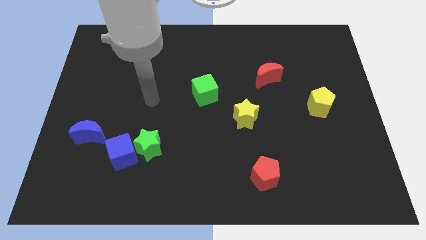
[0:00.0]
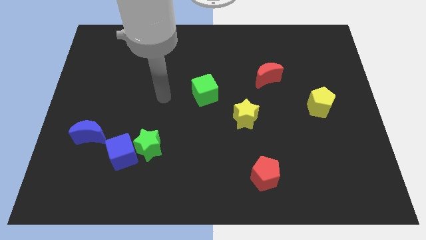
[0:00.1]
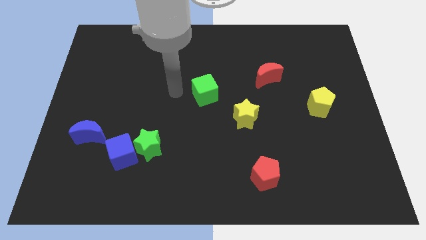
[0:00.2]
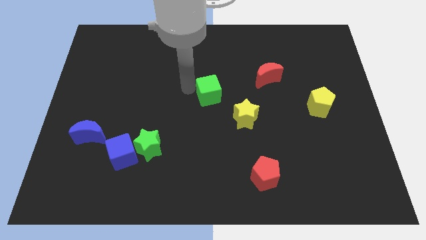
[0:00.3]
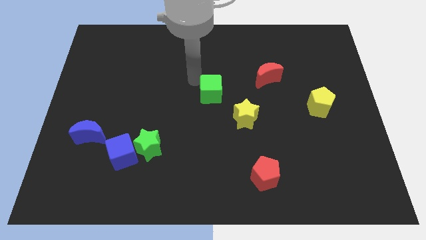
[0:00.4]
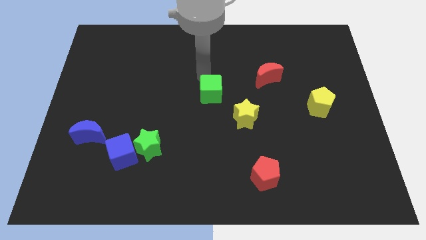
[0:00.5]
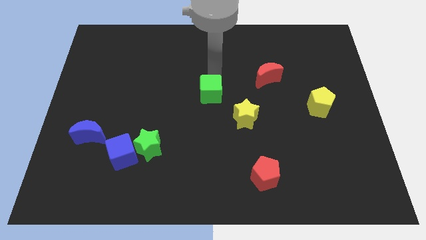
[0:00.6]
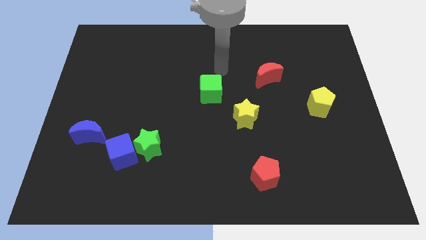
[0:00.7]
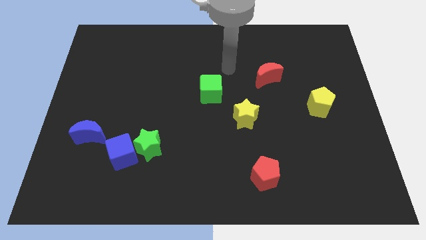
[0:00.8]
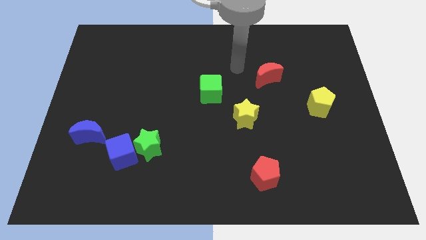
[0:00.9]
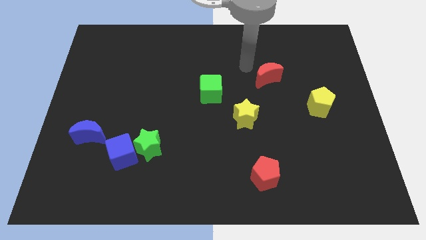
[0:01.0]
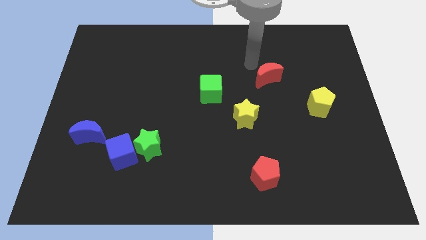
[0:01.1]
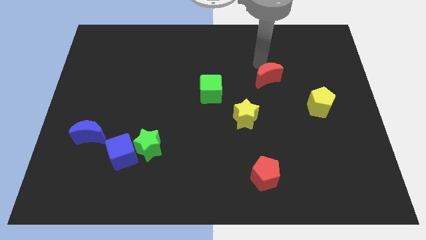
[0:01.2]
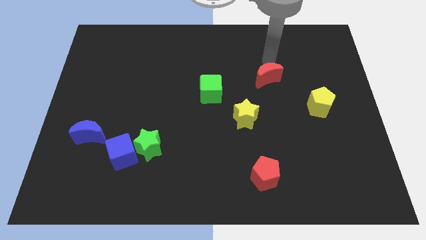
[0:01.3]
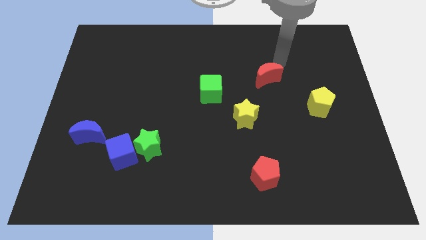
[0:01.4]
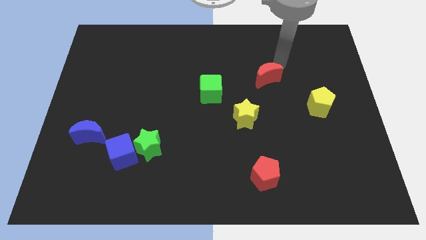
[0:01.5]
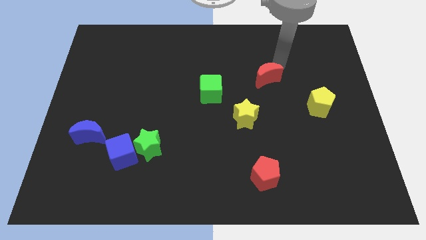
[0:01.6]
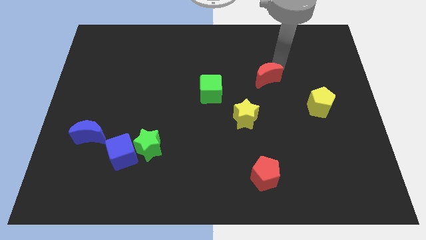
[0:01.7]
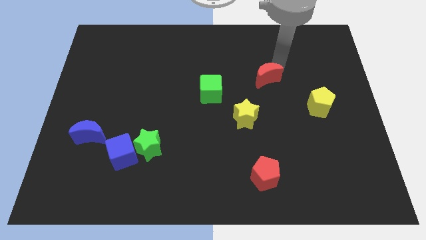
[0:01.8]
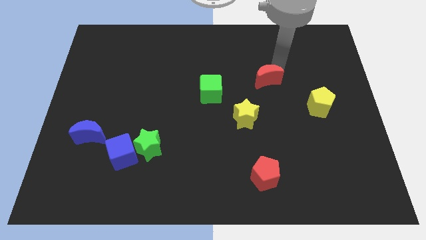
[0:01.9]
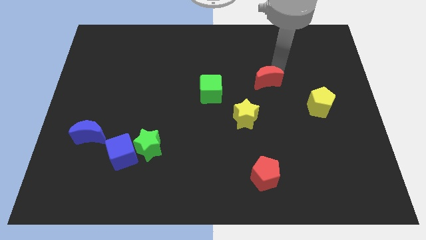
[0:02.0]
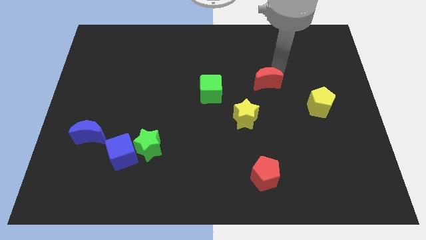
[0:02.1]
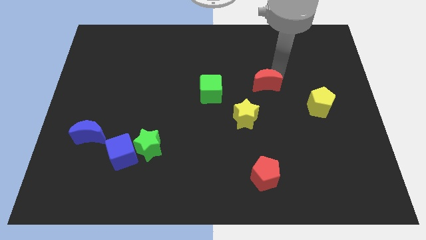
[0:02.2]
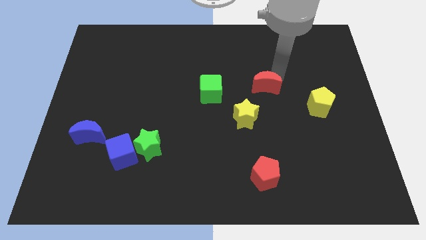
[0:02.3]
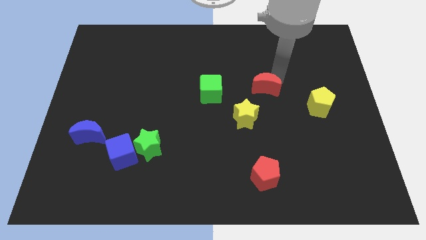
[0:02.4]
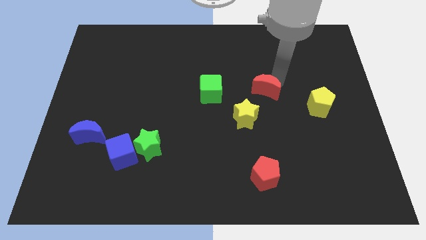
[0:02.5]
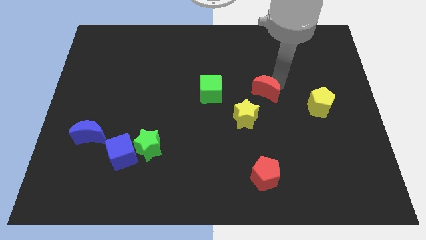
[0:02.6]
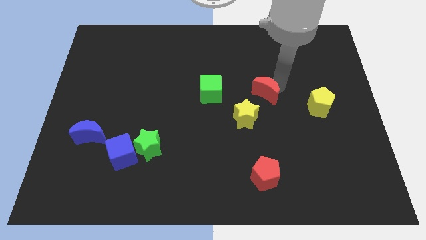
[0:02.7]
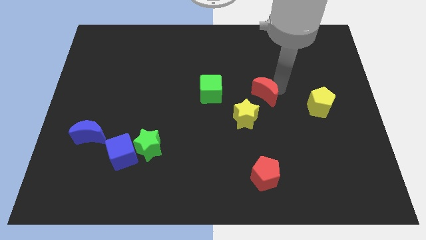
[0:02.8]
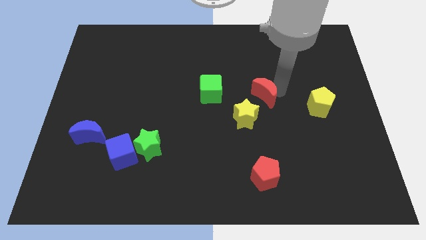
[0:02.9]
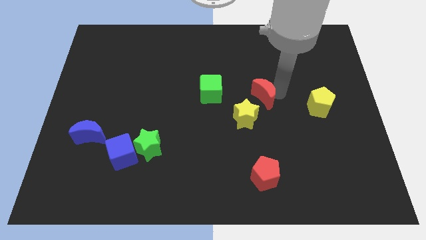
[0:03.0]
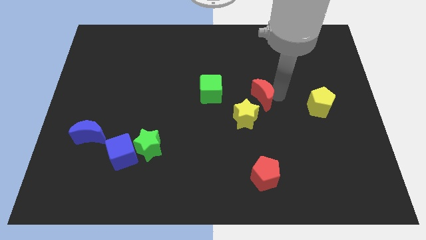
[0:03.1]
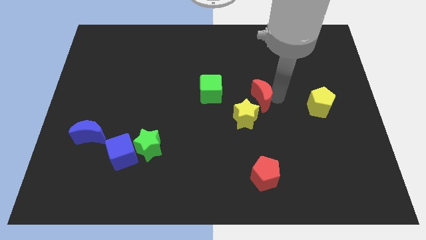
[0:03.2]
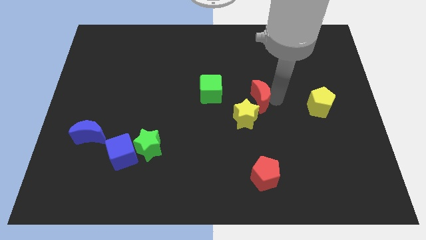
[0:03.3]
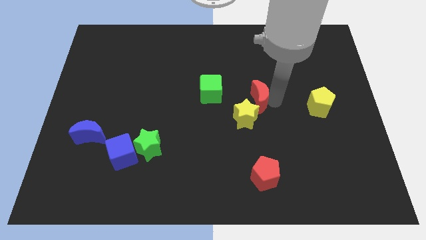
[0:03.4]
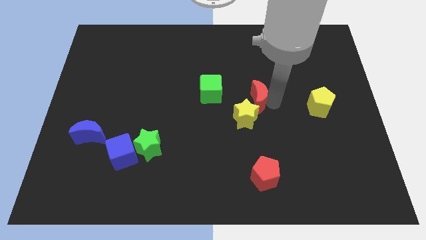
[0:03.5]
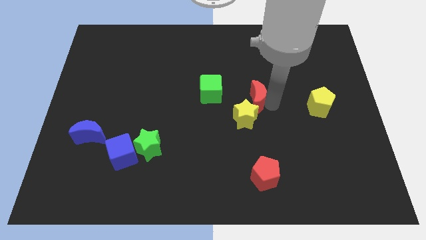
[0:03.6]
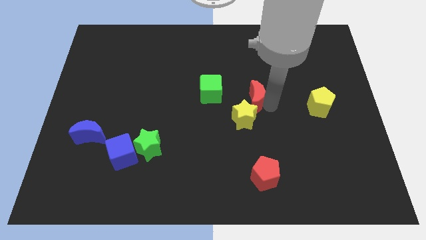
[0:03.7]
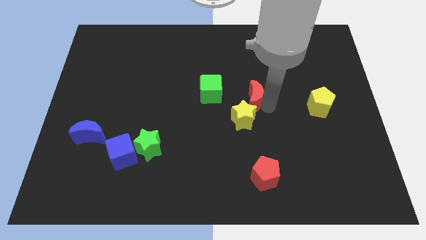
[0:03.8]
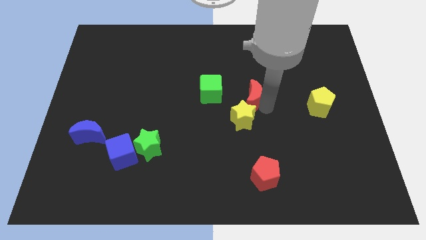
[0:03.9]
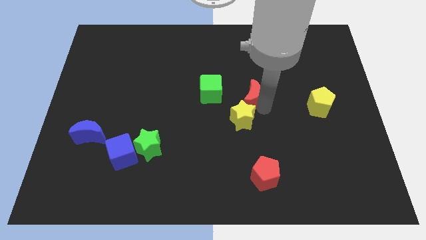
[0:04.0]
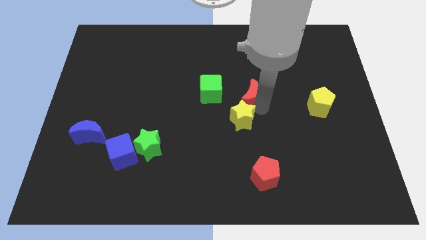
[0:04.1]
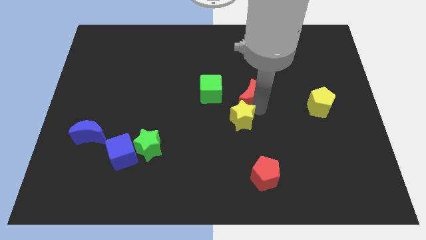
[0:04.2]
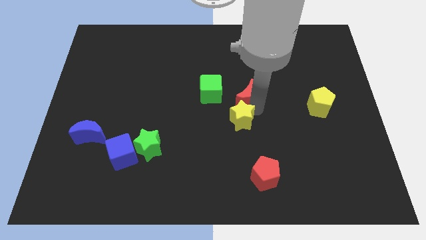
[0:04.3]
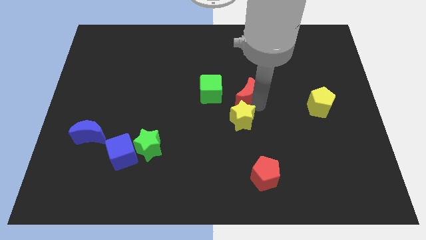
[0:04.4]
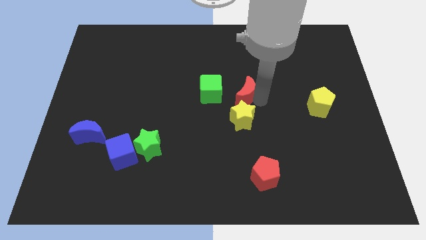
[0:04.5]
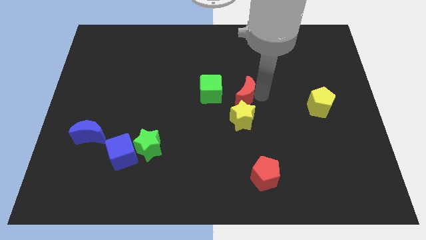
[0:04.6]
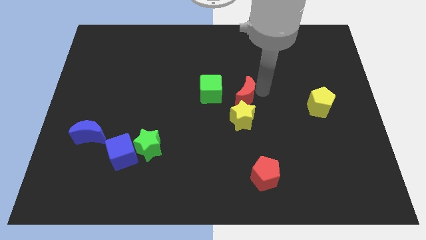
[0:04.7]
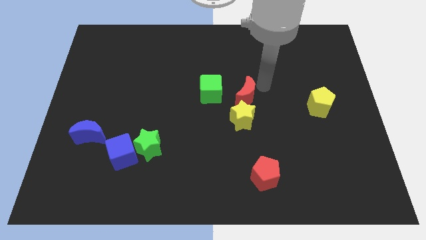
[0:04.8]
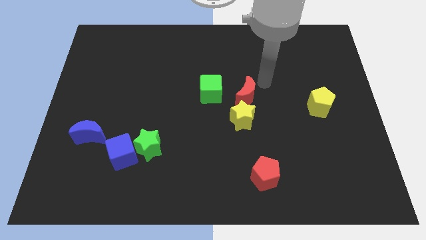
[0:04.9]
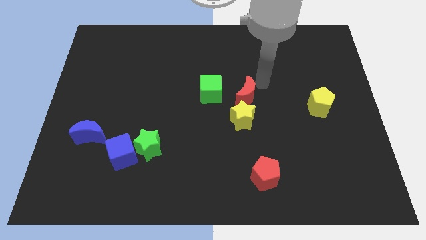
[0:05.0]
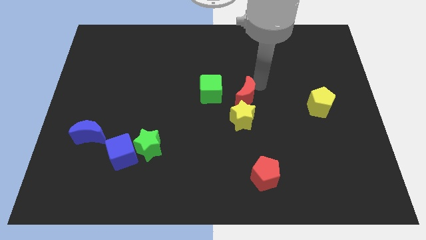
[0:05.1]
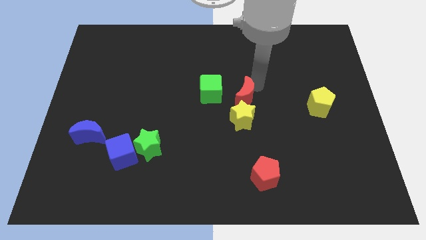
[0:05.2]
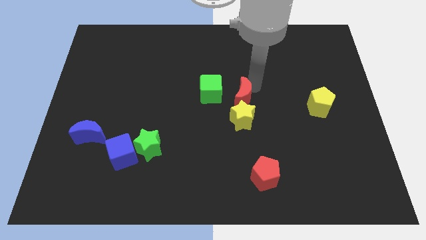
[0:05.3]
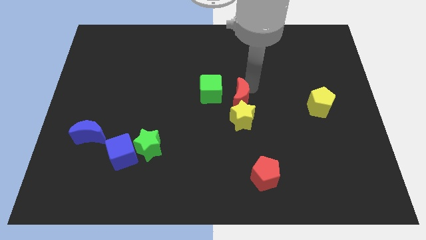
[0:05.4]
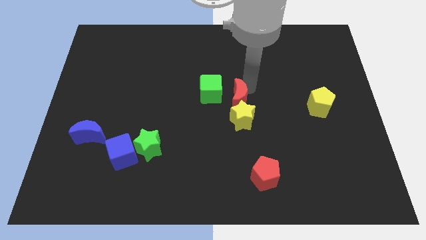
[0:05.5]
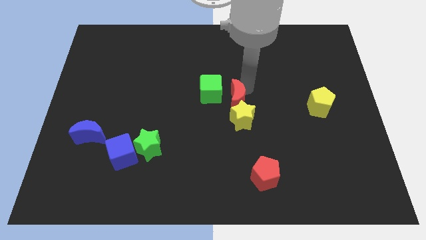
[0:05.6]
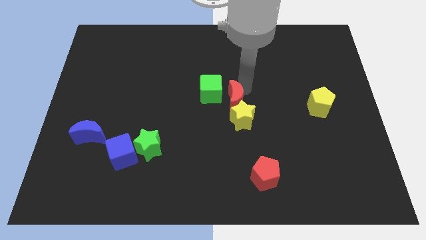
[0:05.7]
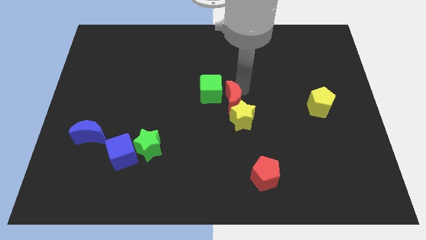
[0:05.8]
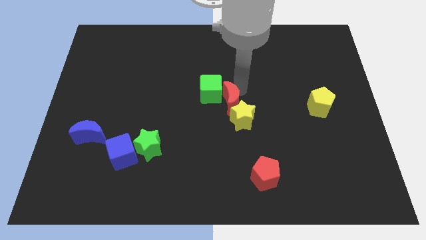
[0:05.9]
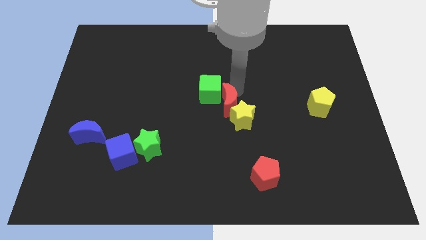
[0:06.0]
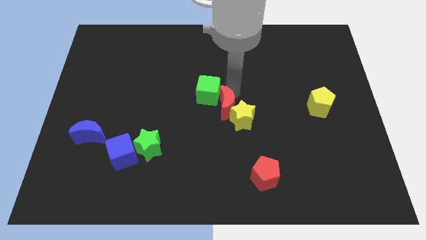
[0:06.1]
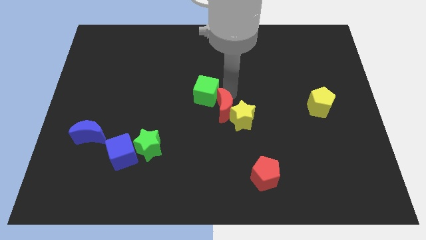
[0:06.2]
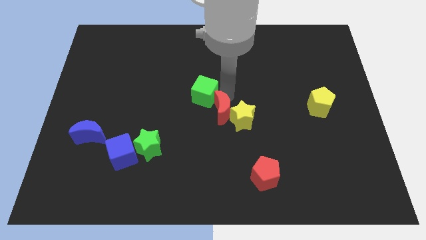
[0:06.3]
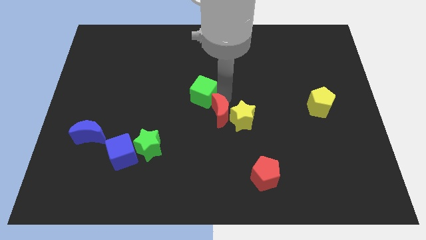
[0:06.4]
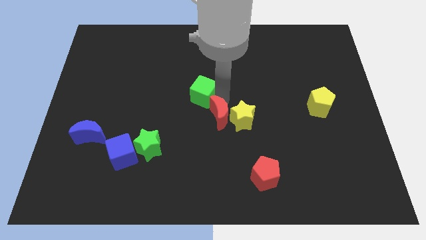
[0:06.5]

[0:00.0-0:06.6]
move the red moon to the bottom left side of the yellow star
